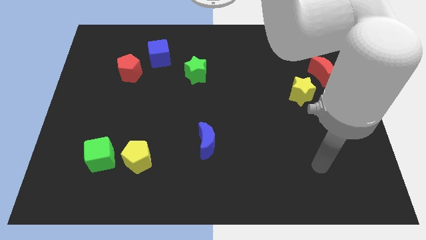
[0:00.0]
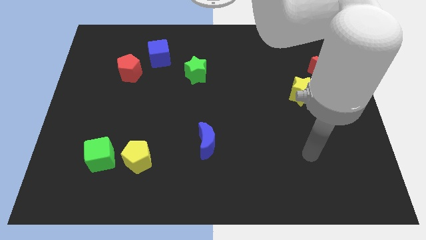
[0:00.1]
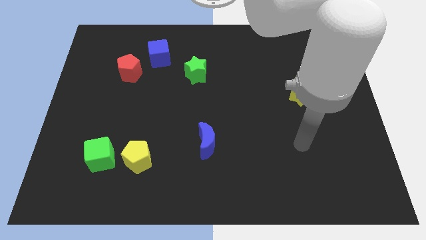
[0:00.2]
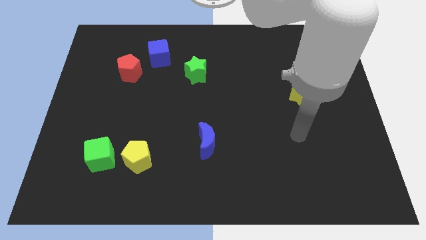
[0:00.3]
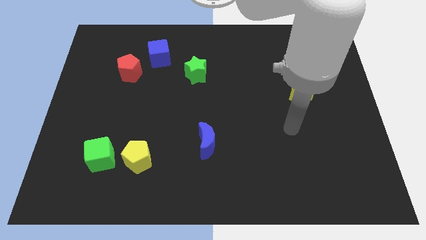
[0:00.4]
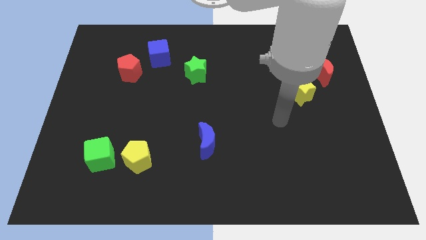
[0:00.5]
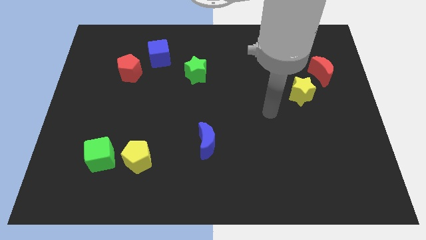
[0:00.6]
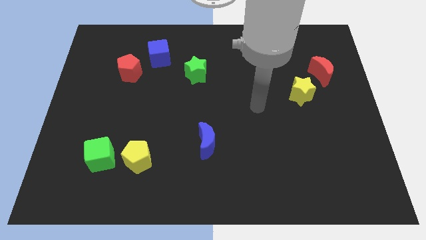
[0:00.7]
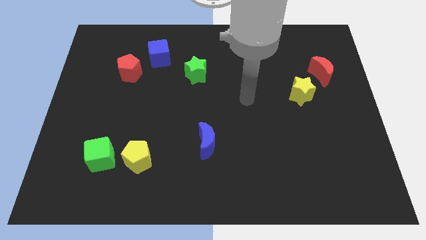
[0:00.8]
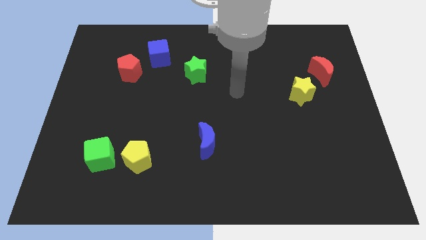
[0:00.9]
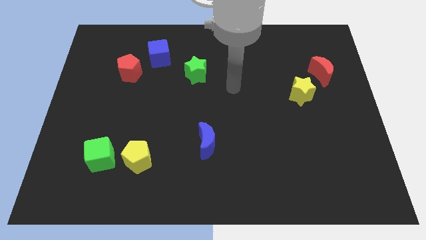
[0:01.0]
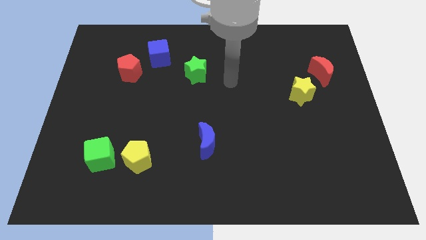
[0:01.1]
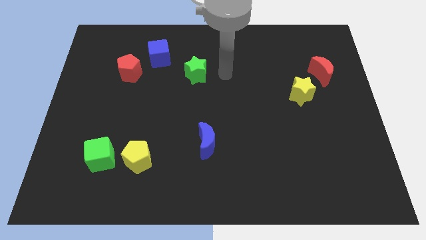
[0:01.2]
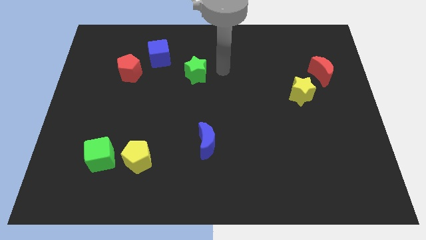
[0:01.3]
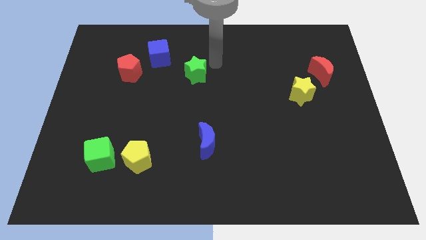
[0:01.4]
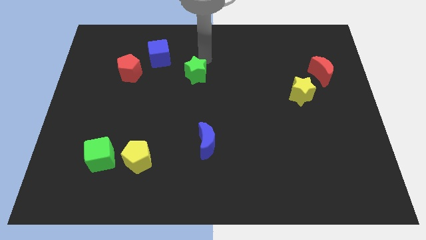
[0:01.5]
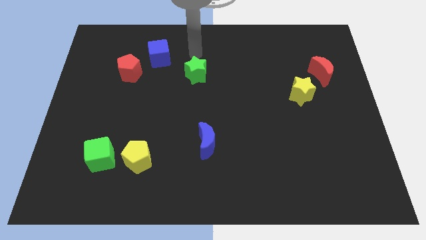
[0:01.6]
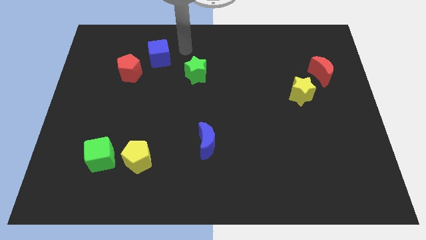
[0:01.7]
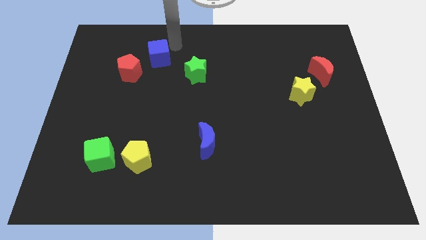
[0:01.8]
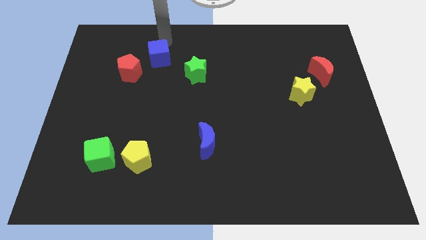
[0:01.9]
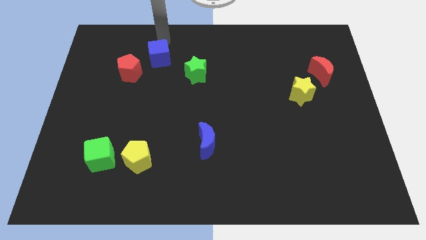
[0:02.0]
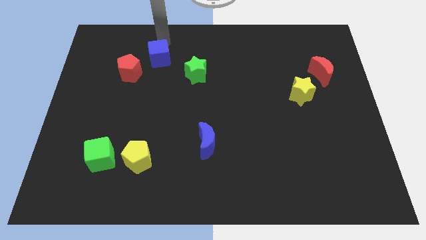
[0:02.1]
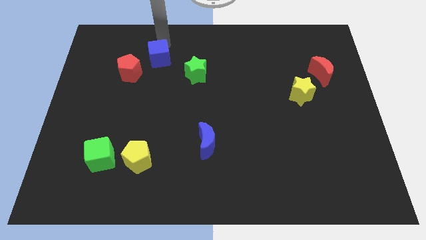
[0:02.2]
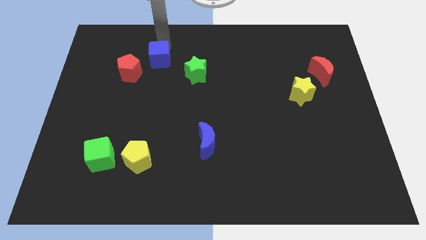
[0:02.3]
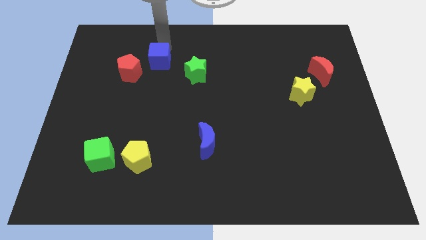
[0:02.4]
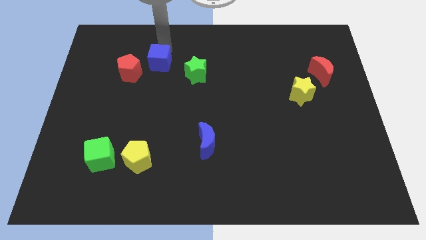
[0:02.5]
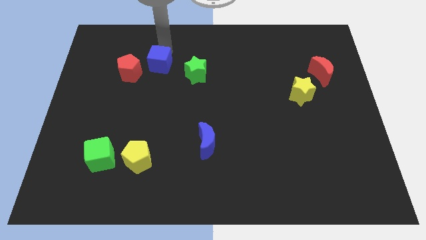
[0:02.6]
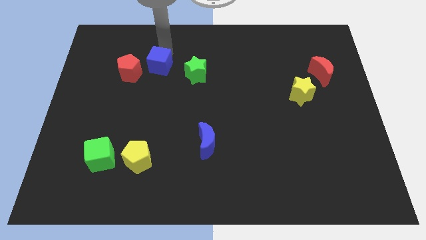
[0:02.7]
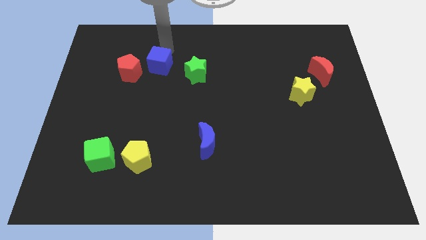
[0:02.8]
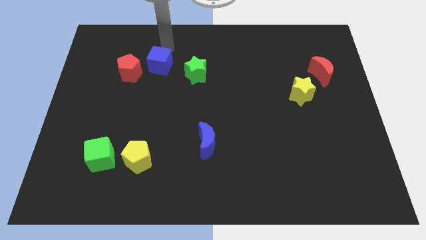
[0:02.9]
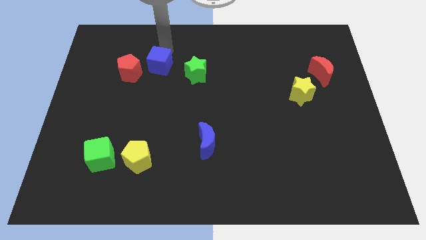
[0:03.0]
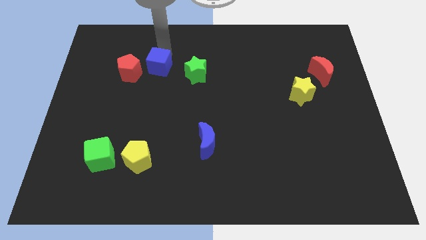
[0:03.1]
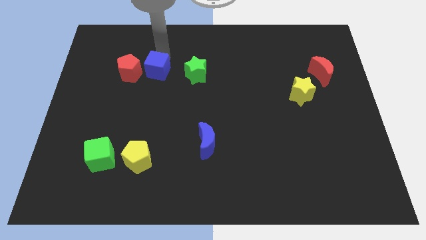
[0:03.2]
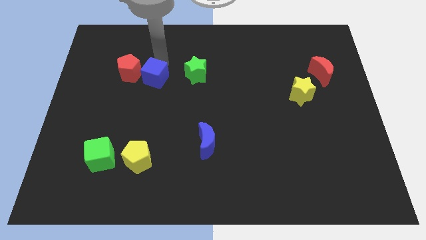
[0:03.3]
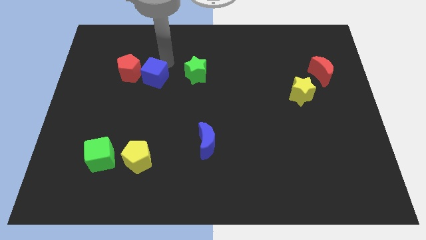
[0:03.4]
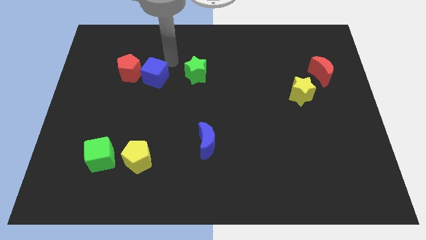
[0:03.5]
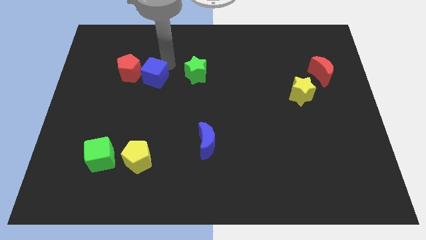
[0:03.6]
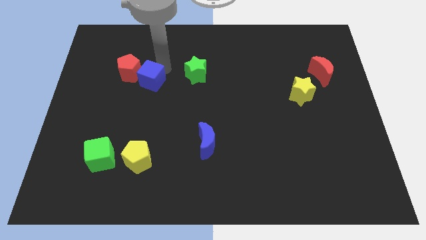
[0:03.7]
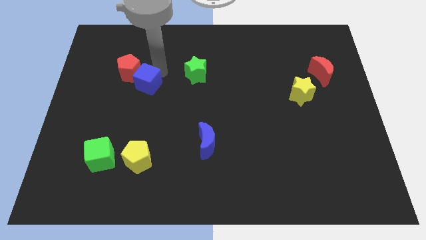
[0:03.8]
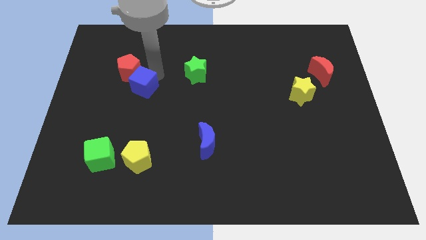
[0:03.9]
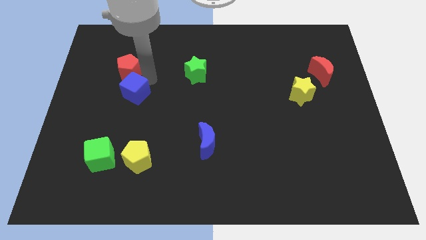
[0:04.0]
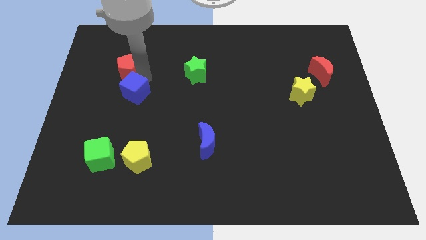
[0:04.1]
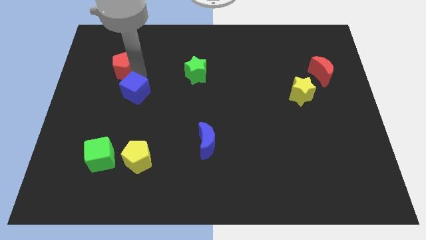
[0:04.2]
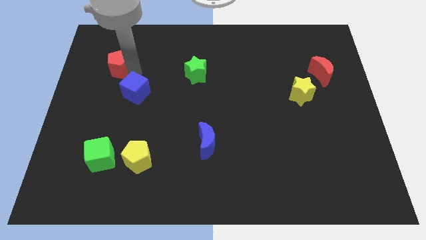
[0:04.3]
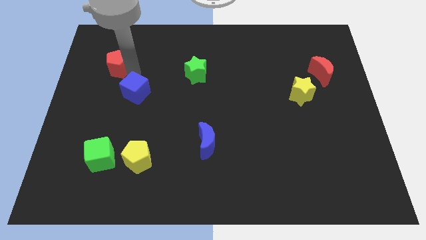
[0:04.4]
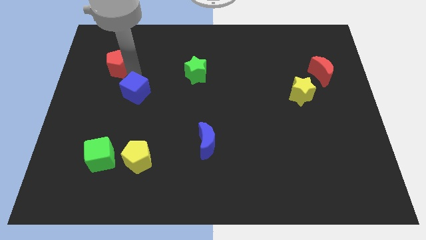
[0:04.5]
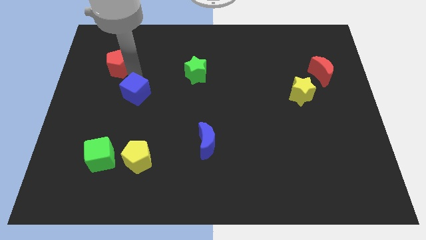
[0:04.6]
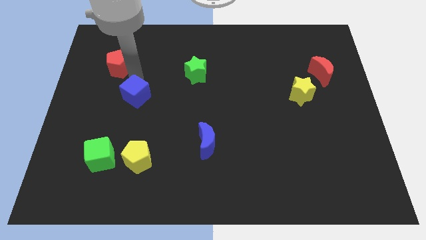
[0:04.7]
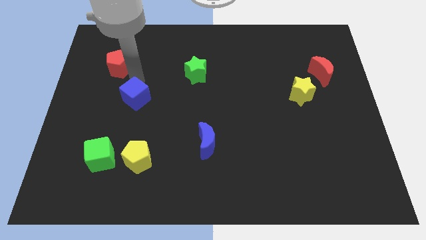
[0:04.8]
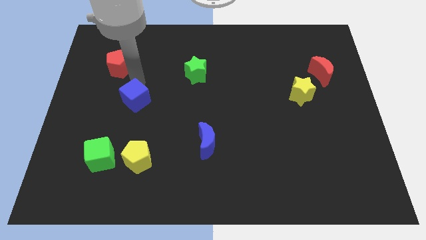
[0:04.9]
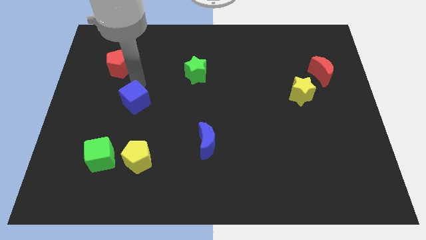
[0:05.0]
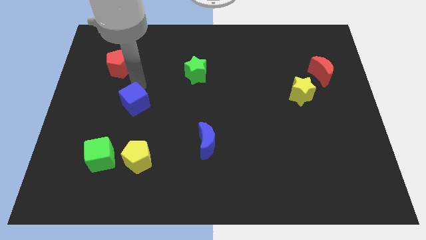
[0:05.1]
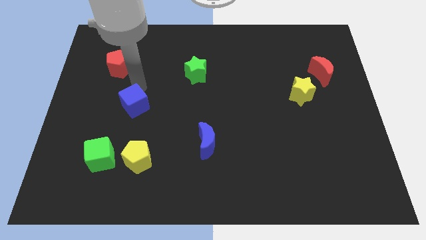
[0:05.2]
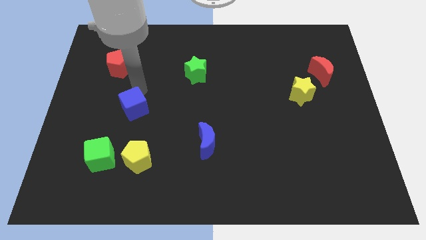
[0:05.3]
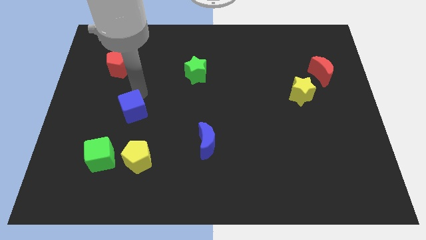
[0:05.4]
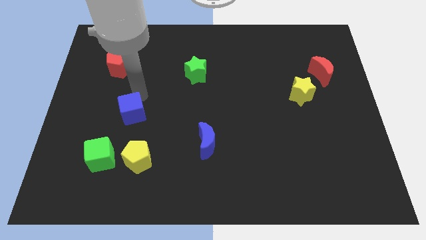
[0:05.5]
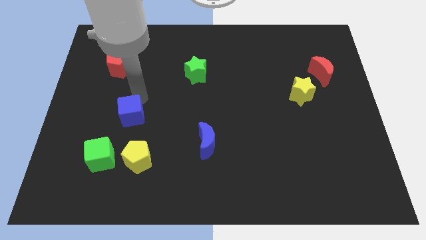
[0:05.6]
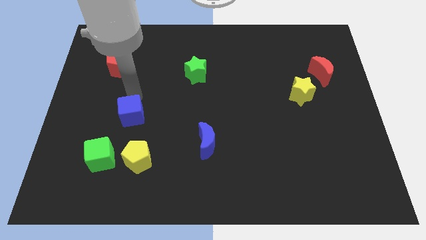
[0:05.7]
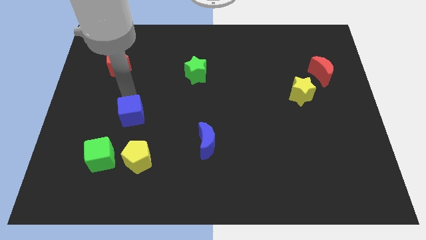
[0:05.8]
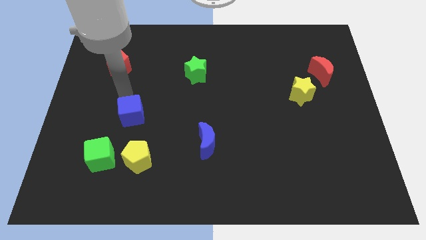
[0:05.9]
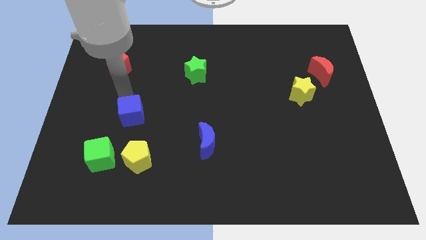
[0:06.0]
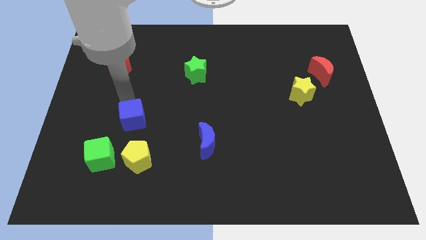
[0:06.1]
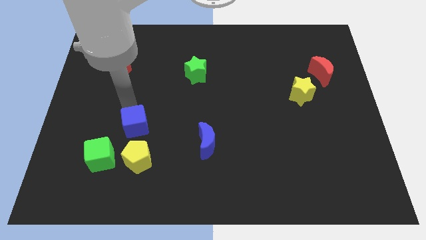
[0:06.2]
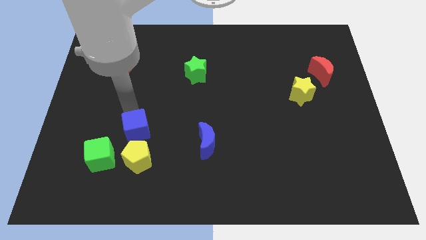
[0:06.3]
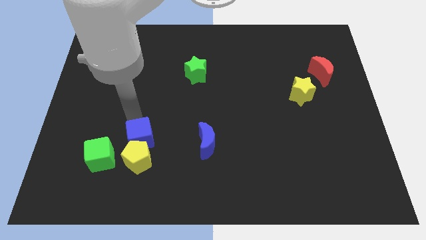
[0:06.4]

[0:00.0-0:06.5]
put the blue cube towards the yellow pentagon
